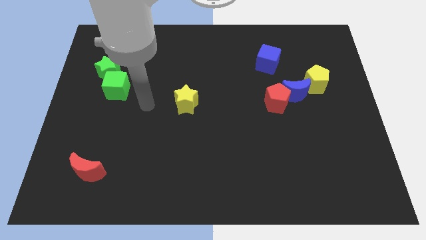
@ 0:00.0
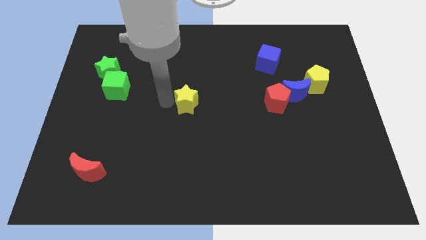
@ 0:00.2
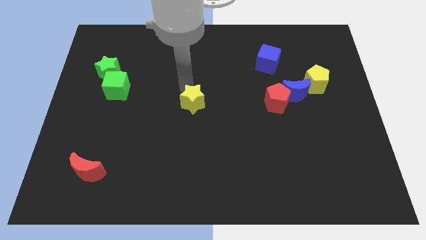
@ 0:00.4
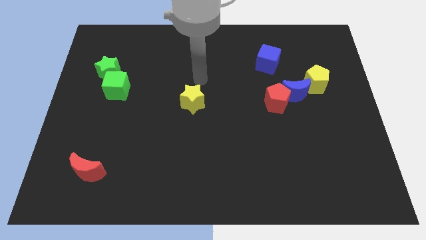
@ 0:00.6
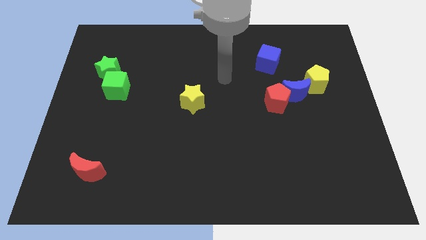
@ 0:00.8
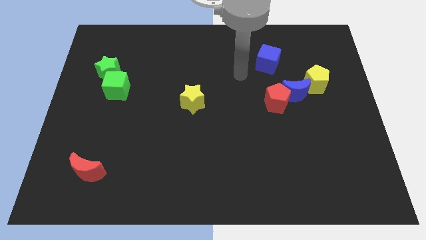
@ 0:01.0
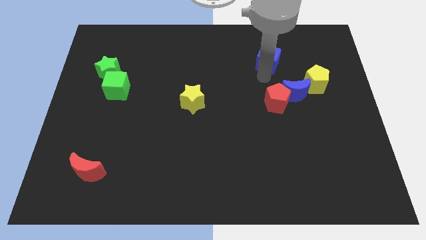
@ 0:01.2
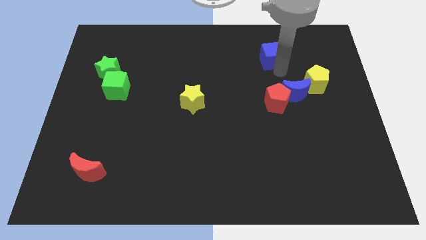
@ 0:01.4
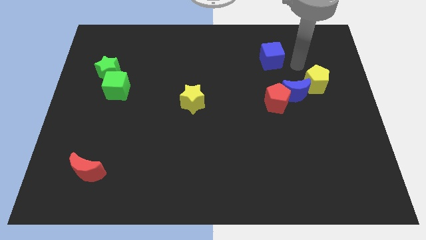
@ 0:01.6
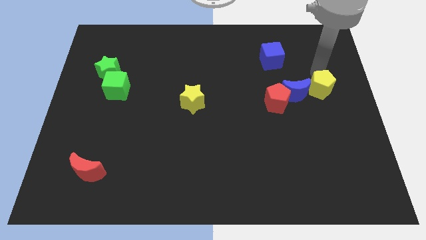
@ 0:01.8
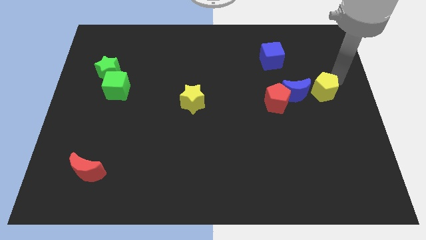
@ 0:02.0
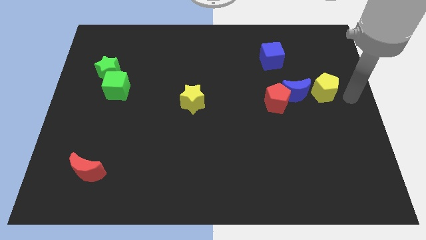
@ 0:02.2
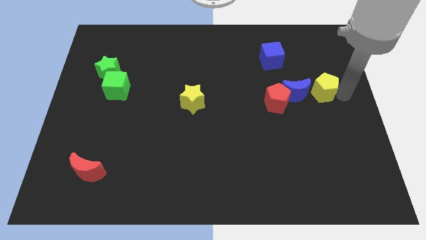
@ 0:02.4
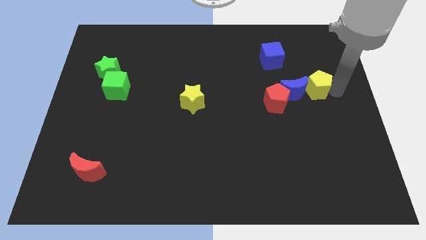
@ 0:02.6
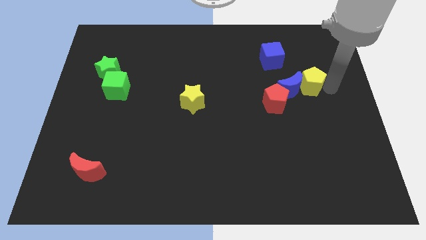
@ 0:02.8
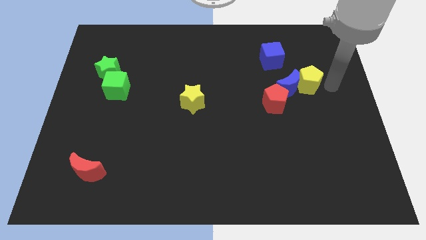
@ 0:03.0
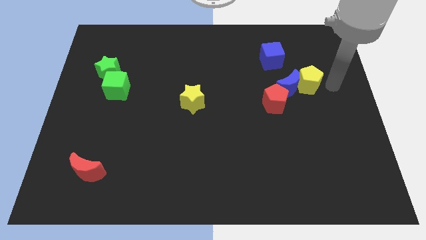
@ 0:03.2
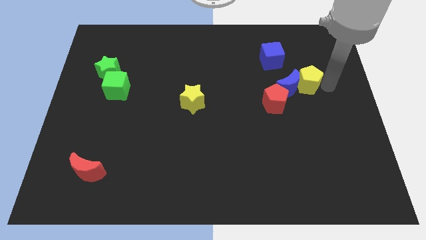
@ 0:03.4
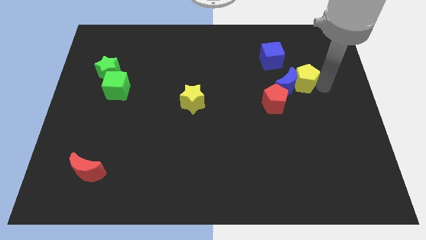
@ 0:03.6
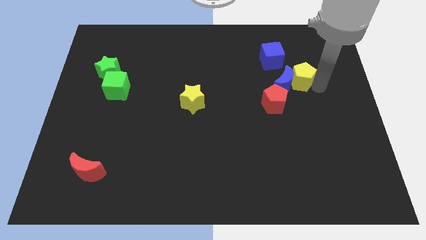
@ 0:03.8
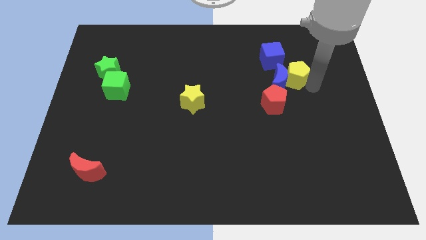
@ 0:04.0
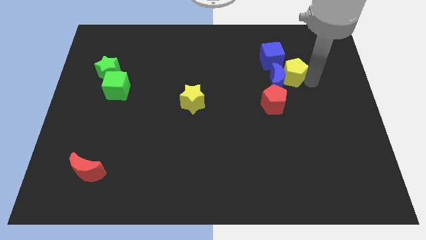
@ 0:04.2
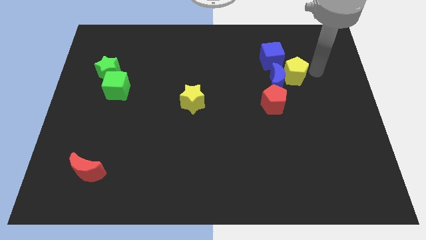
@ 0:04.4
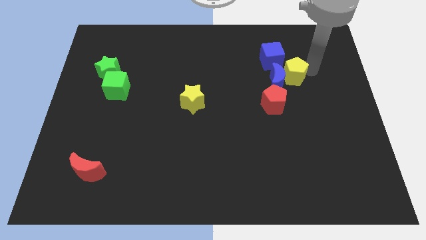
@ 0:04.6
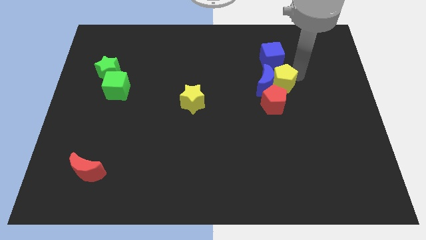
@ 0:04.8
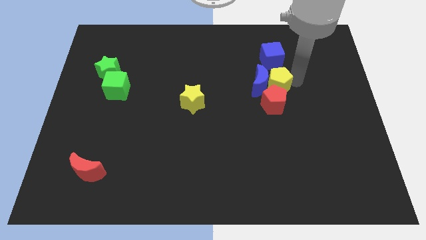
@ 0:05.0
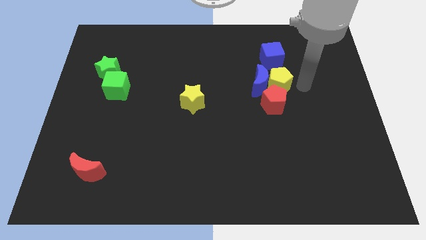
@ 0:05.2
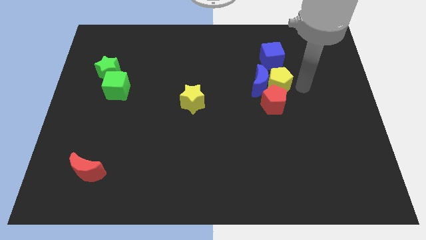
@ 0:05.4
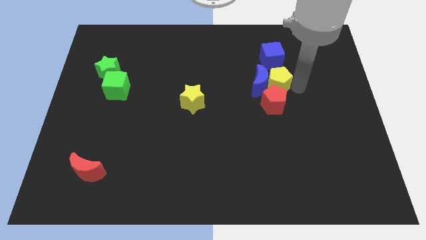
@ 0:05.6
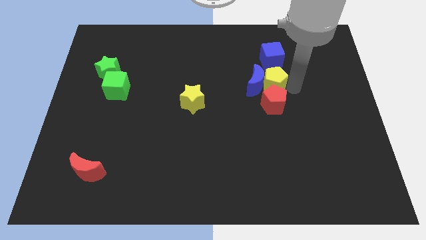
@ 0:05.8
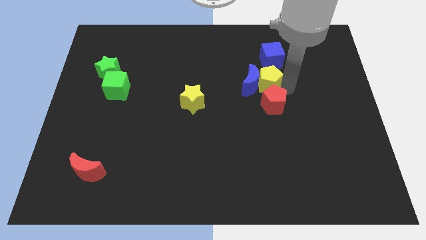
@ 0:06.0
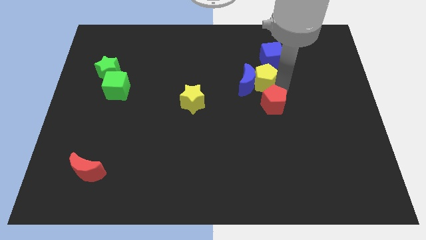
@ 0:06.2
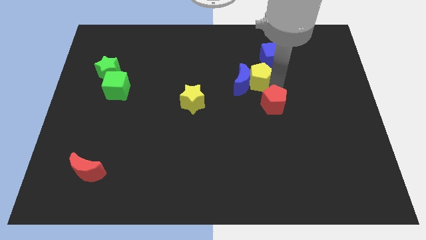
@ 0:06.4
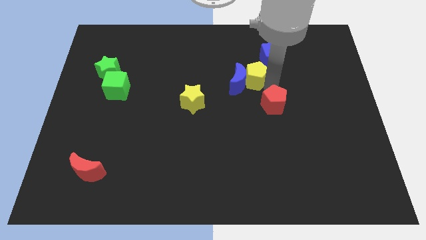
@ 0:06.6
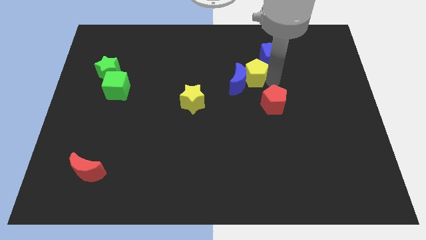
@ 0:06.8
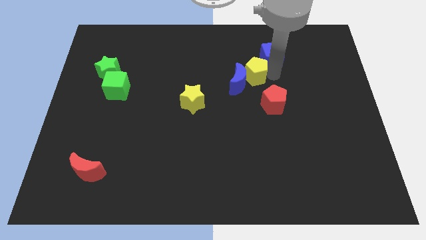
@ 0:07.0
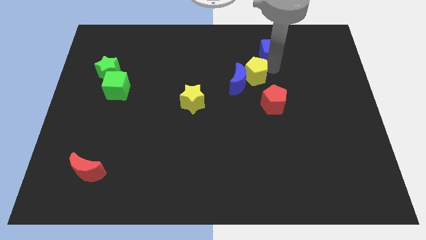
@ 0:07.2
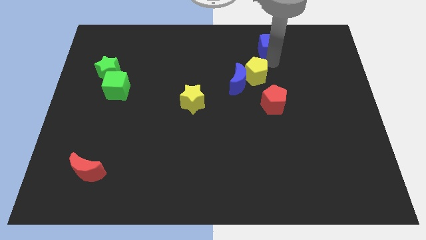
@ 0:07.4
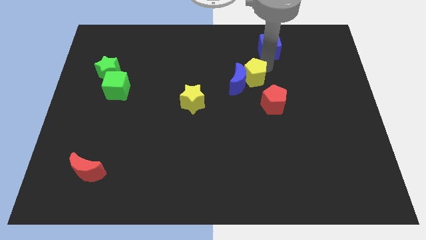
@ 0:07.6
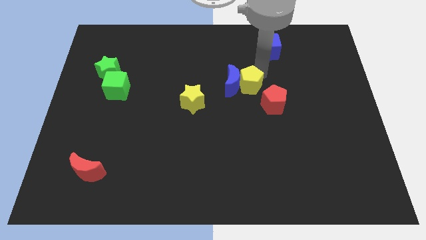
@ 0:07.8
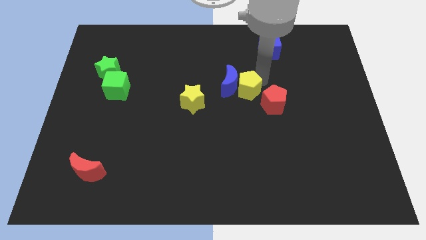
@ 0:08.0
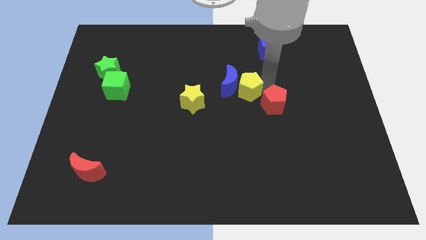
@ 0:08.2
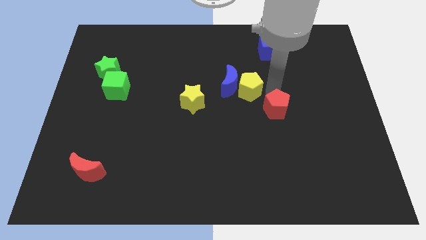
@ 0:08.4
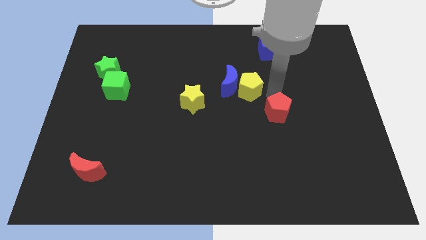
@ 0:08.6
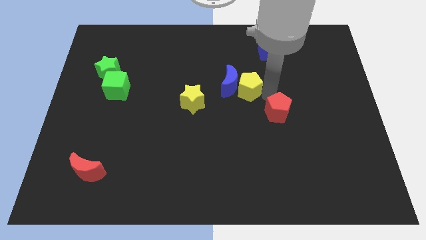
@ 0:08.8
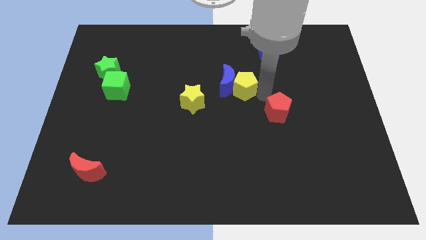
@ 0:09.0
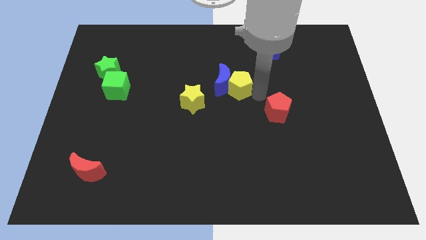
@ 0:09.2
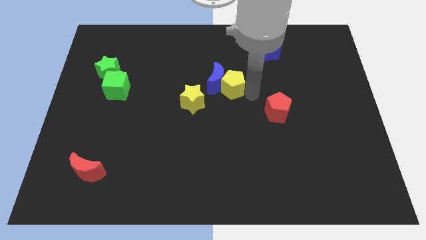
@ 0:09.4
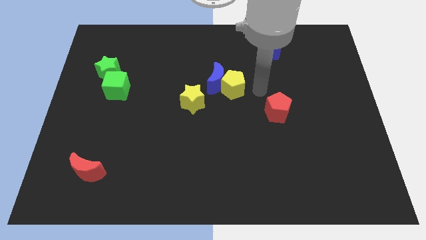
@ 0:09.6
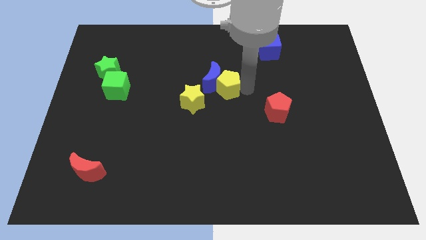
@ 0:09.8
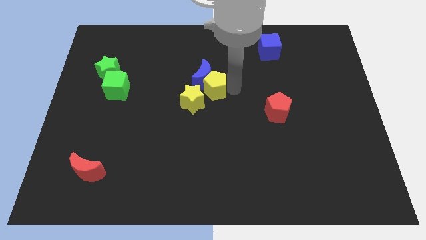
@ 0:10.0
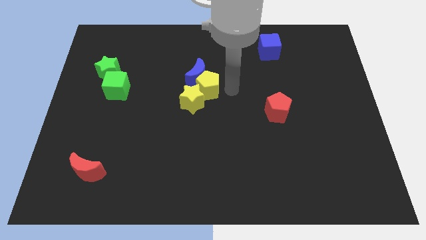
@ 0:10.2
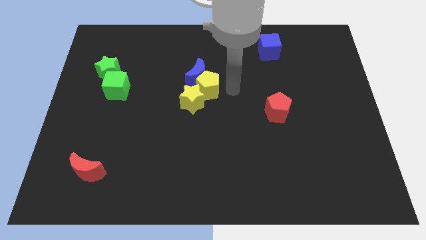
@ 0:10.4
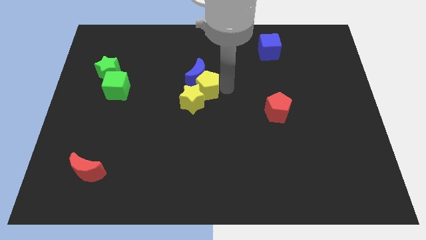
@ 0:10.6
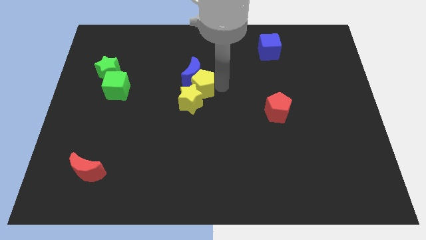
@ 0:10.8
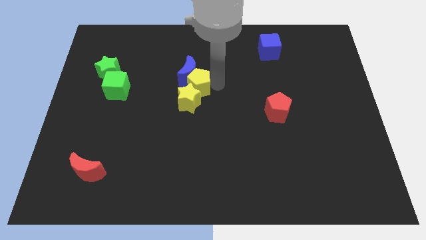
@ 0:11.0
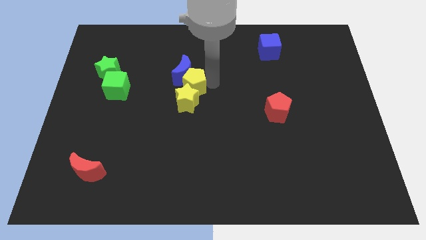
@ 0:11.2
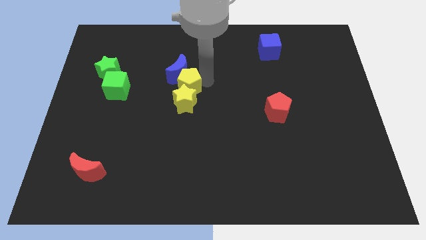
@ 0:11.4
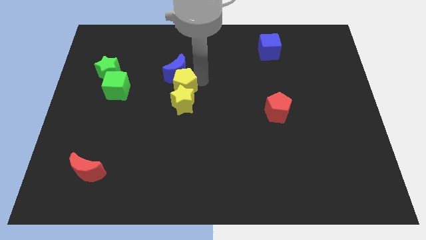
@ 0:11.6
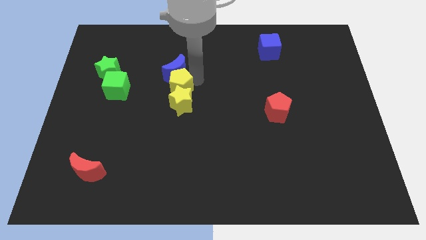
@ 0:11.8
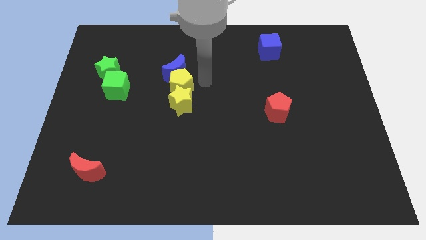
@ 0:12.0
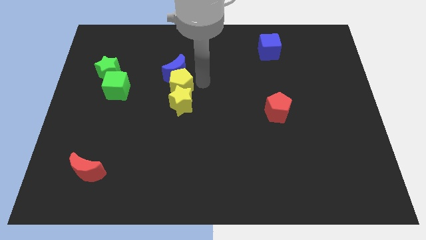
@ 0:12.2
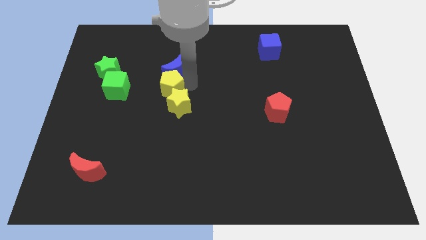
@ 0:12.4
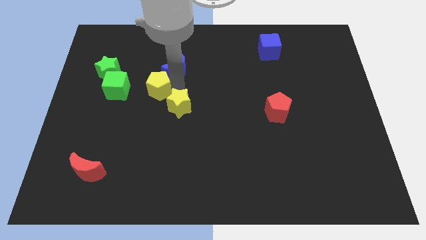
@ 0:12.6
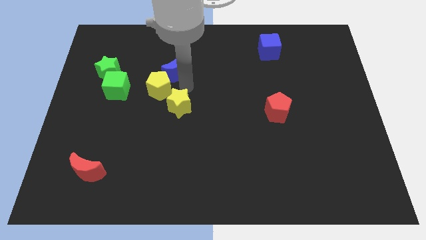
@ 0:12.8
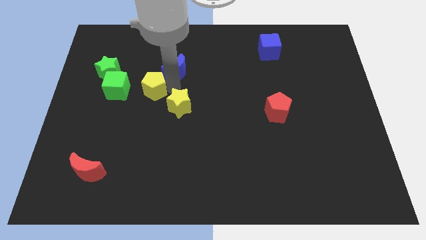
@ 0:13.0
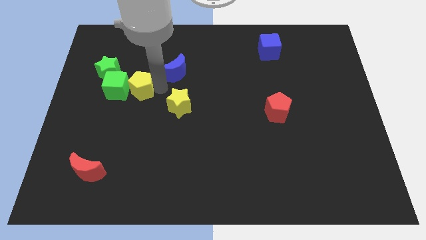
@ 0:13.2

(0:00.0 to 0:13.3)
slide the yellow pentagon close to the green cube

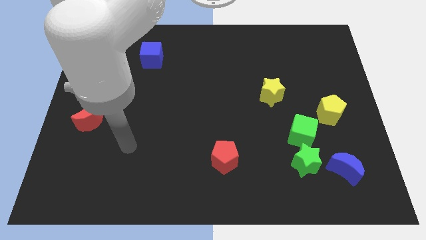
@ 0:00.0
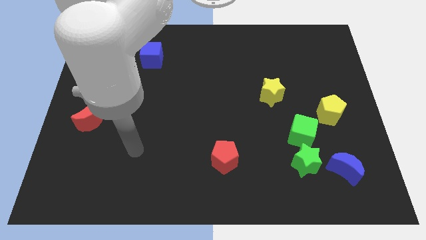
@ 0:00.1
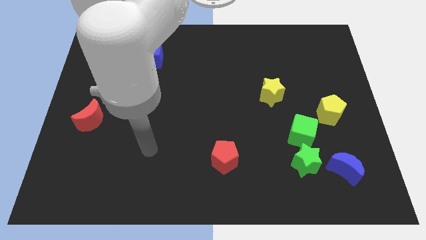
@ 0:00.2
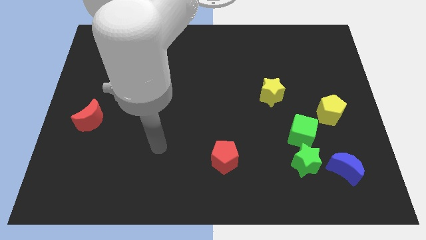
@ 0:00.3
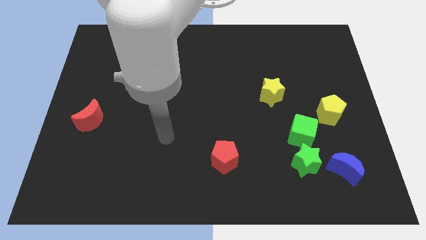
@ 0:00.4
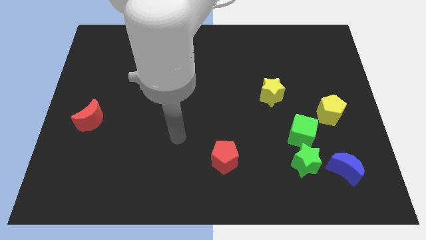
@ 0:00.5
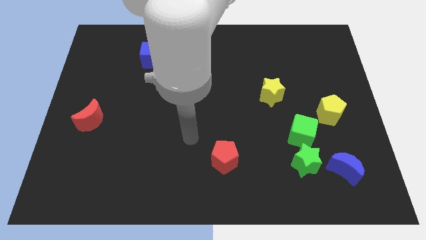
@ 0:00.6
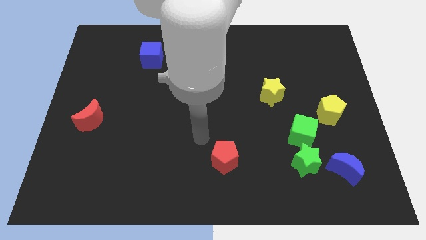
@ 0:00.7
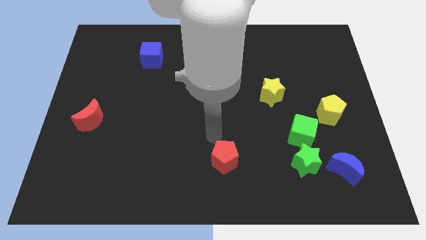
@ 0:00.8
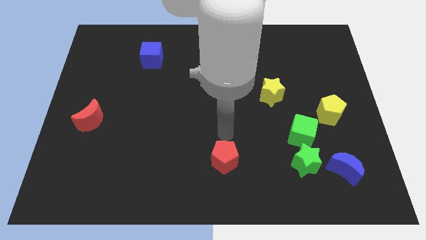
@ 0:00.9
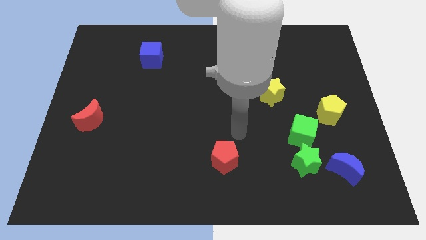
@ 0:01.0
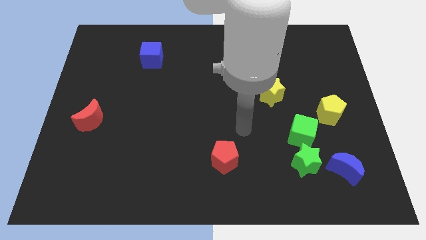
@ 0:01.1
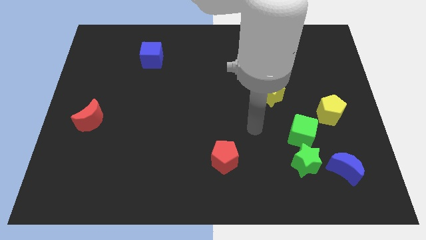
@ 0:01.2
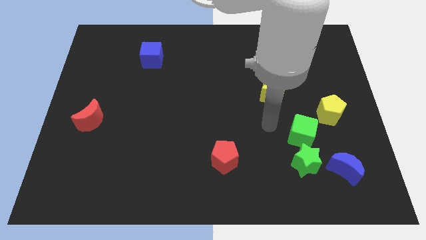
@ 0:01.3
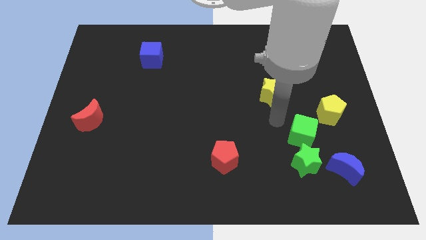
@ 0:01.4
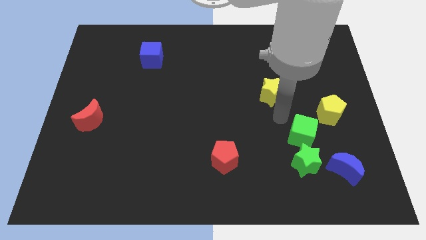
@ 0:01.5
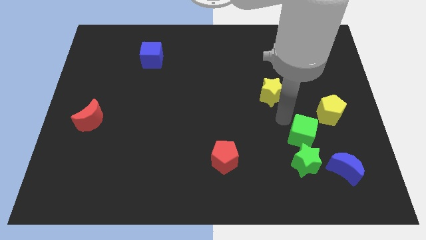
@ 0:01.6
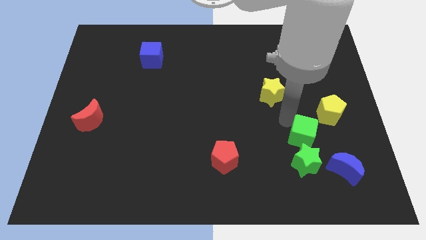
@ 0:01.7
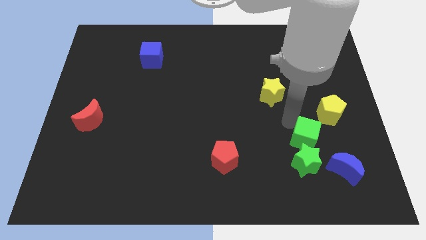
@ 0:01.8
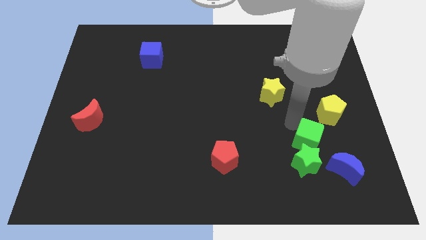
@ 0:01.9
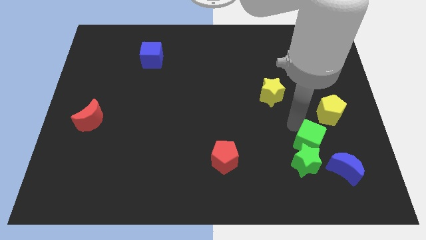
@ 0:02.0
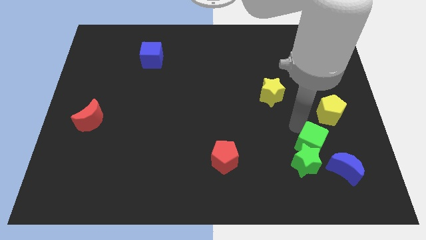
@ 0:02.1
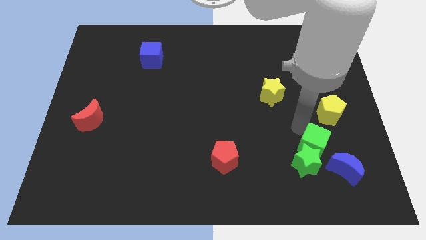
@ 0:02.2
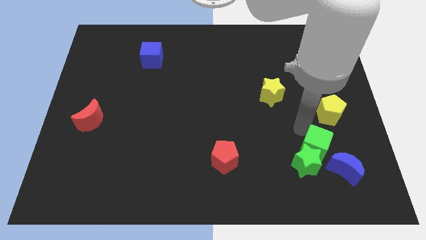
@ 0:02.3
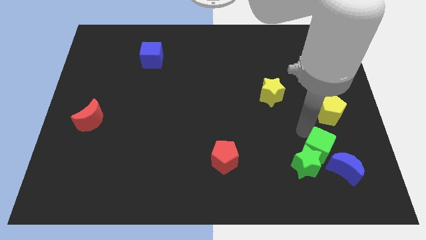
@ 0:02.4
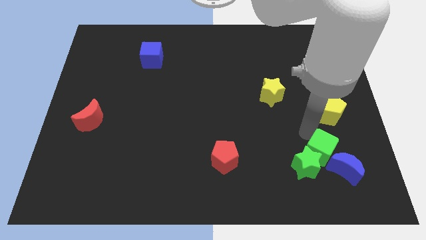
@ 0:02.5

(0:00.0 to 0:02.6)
push the green cube to the blue moon
